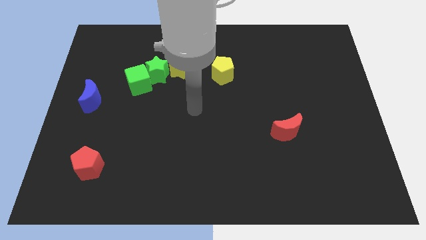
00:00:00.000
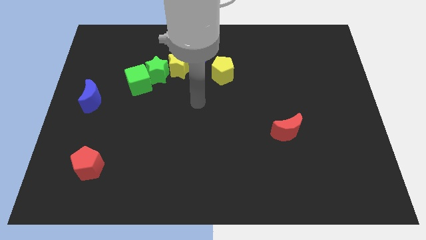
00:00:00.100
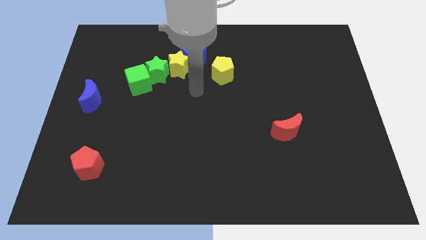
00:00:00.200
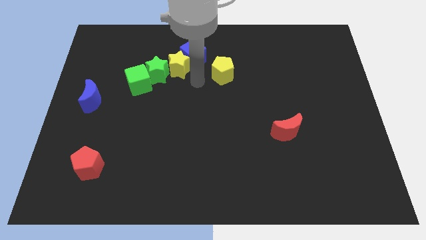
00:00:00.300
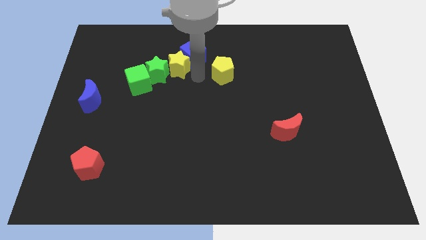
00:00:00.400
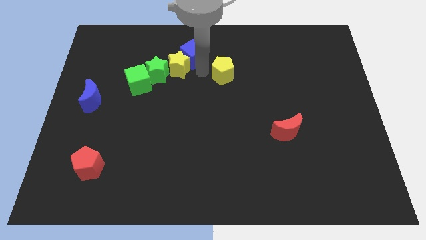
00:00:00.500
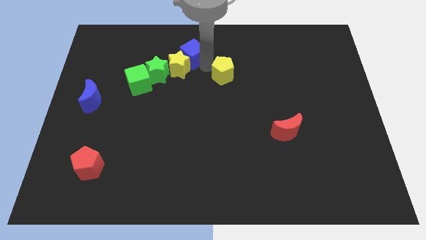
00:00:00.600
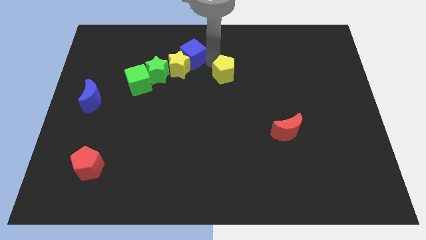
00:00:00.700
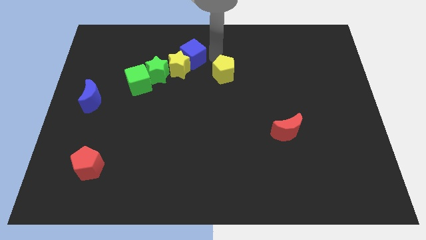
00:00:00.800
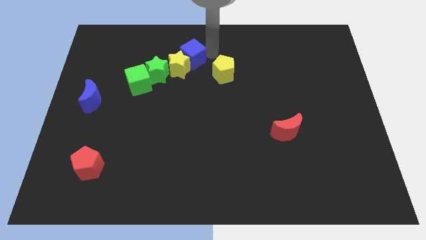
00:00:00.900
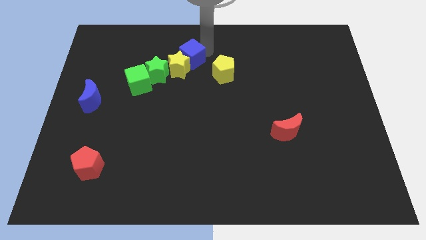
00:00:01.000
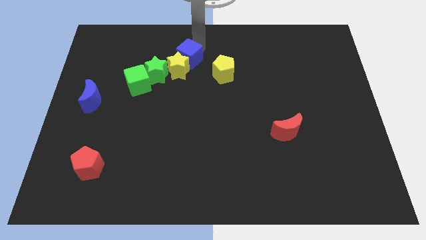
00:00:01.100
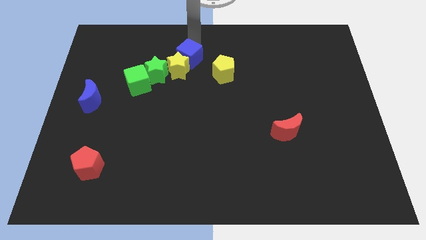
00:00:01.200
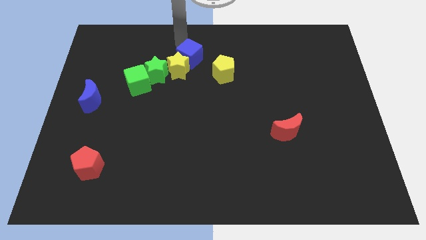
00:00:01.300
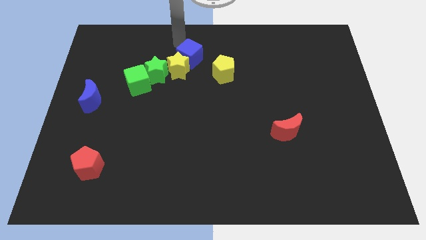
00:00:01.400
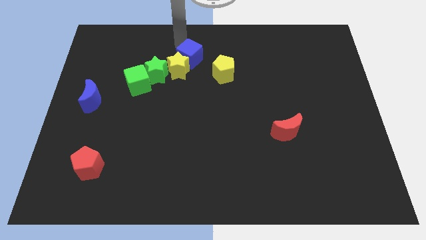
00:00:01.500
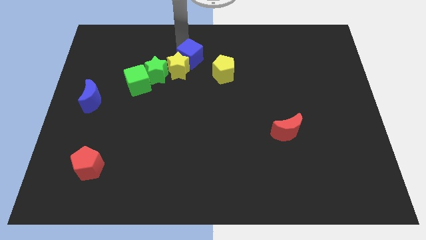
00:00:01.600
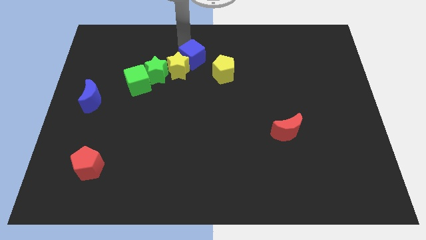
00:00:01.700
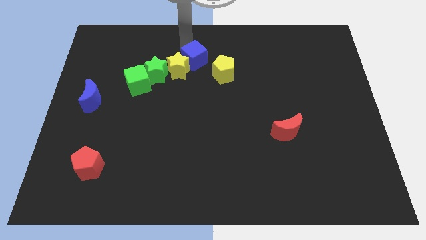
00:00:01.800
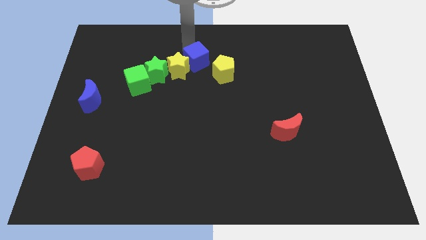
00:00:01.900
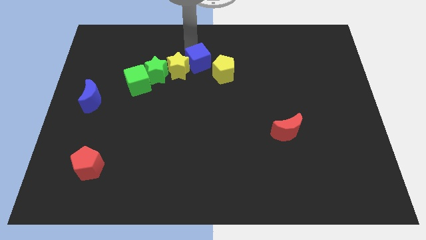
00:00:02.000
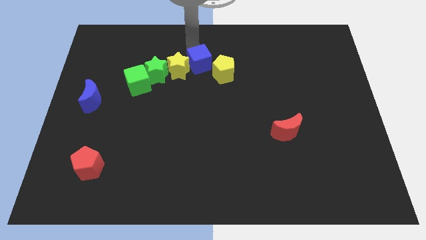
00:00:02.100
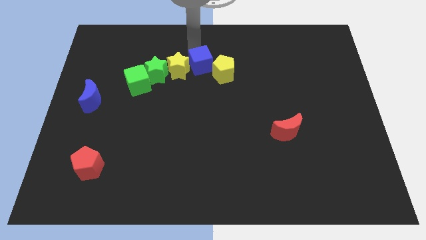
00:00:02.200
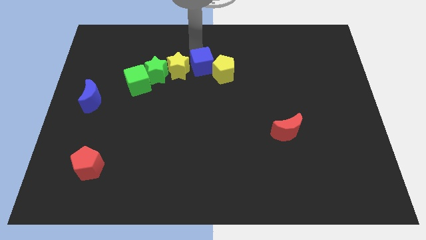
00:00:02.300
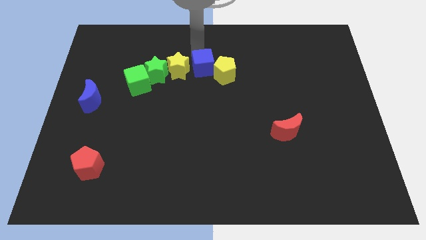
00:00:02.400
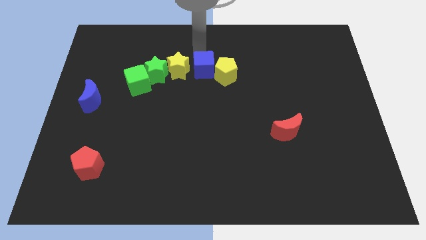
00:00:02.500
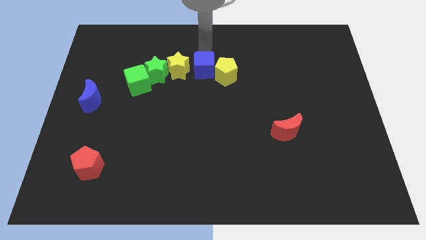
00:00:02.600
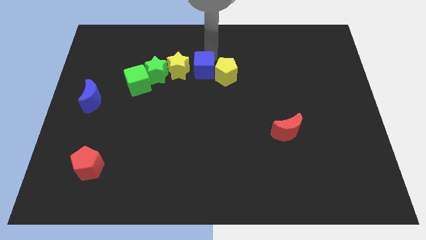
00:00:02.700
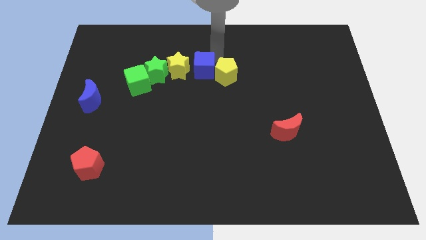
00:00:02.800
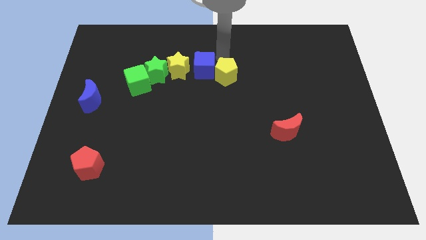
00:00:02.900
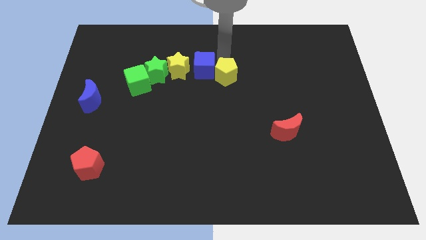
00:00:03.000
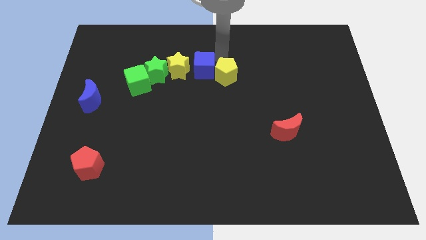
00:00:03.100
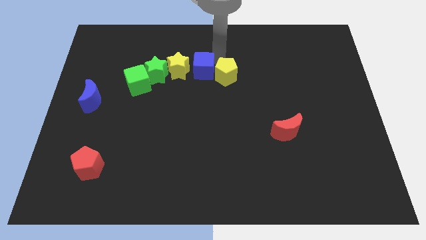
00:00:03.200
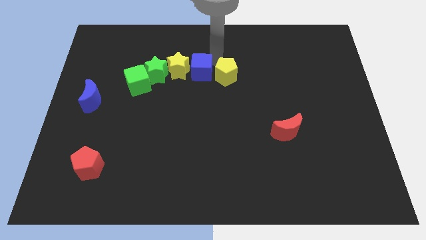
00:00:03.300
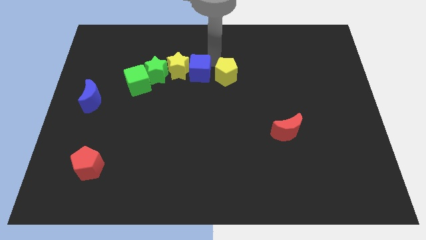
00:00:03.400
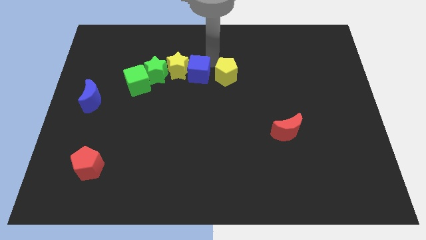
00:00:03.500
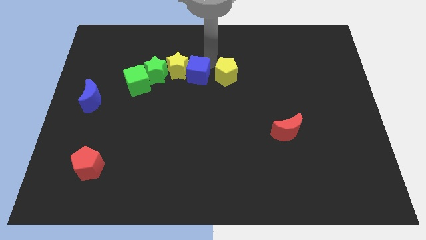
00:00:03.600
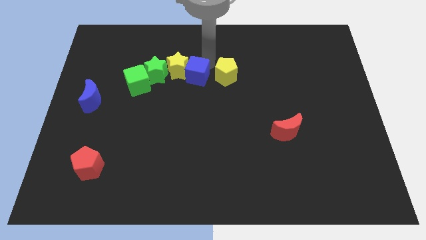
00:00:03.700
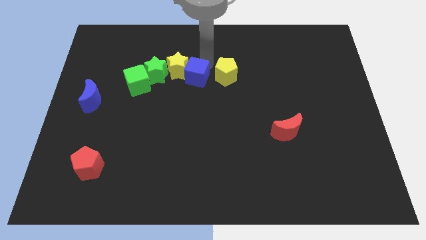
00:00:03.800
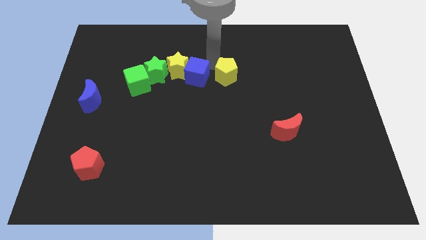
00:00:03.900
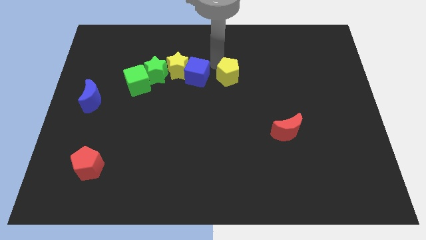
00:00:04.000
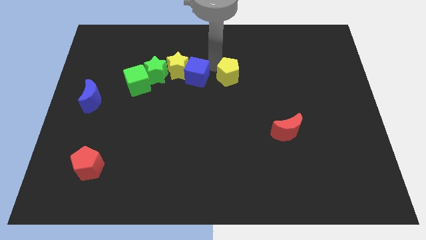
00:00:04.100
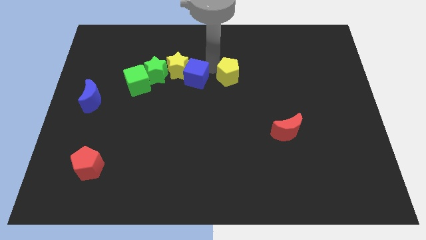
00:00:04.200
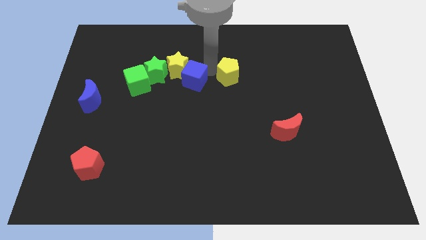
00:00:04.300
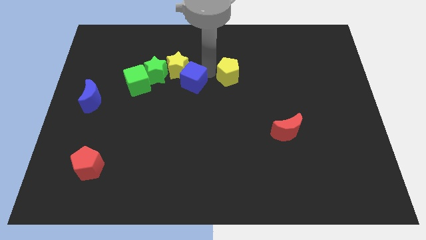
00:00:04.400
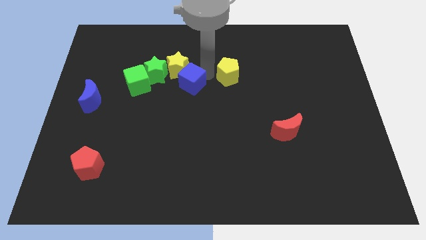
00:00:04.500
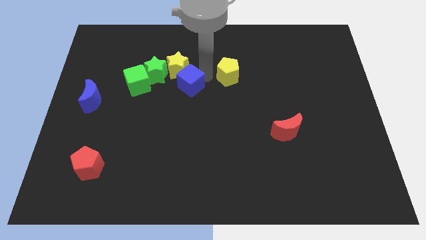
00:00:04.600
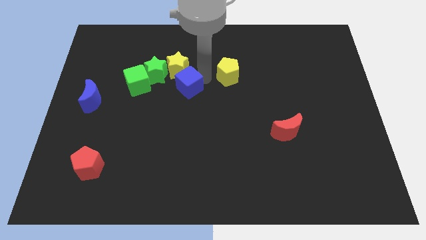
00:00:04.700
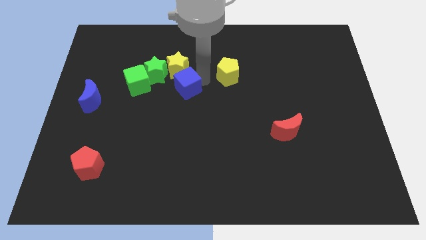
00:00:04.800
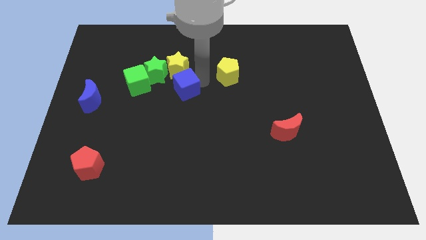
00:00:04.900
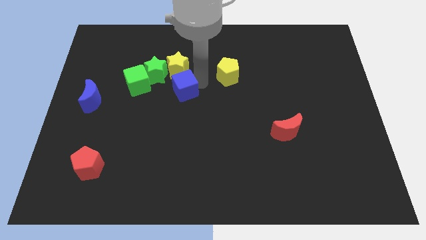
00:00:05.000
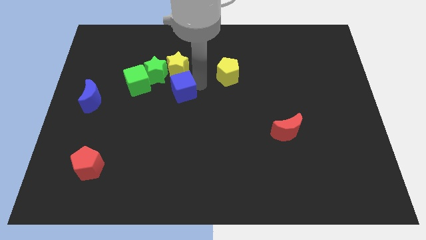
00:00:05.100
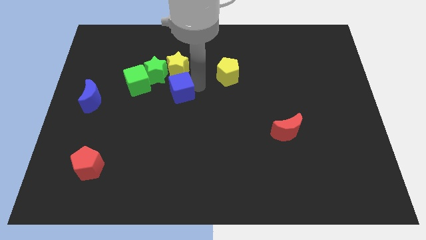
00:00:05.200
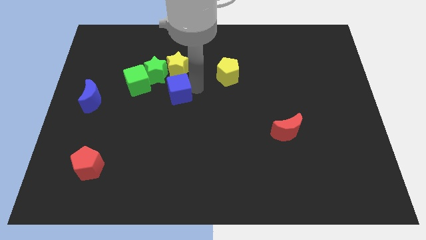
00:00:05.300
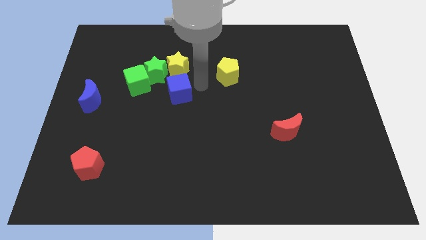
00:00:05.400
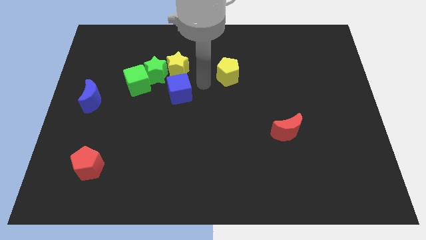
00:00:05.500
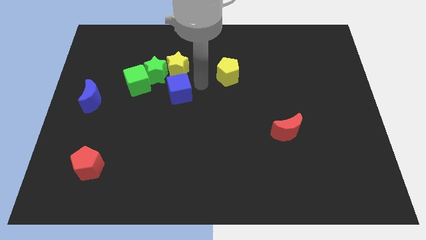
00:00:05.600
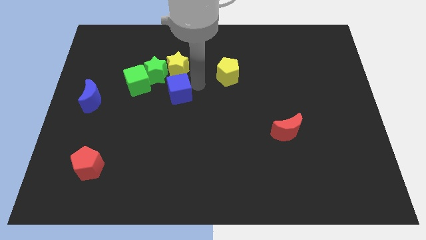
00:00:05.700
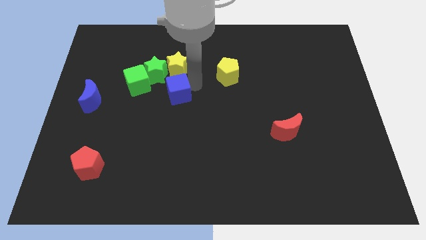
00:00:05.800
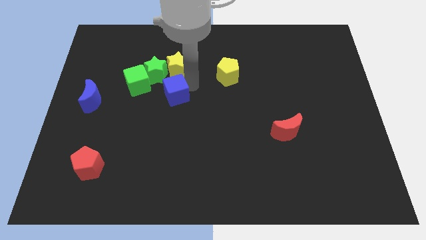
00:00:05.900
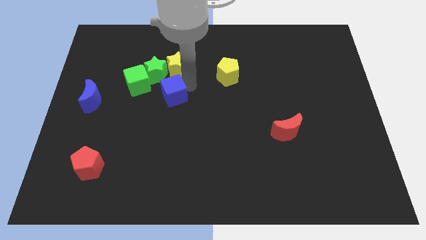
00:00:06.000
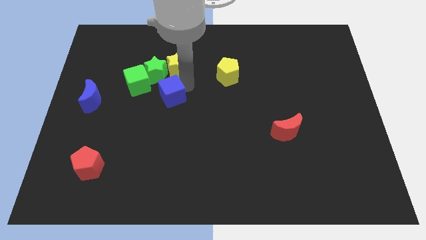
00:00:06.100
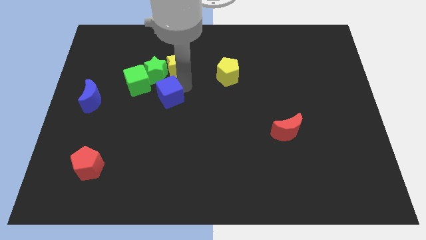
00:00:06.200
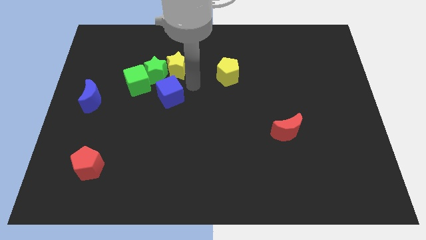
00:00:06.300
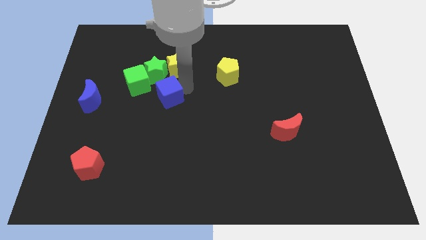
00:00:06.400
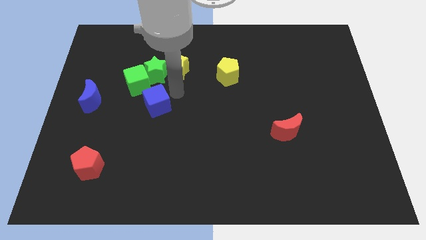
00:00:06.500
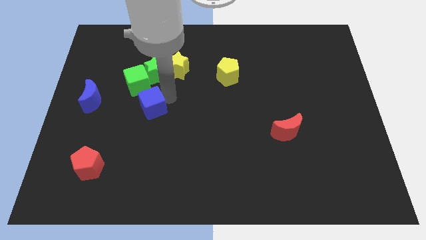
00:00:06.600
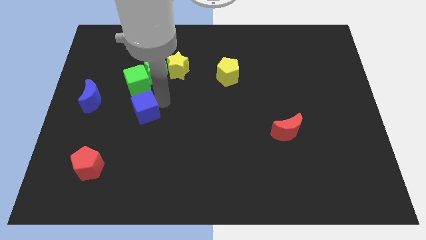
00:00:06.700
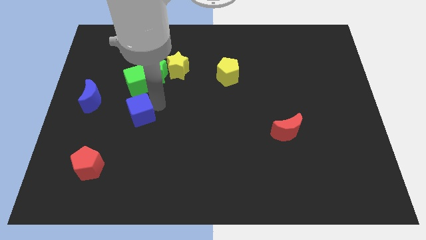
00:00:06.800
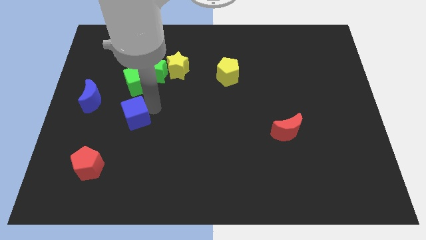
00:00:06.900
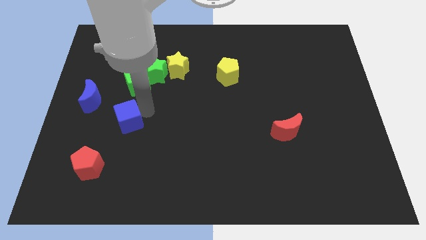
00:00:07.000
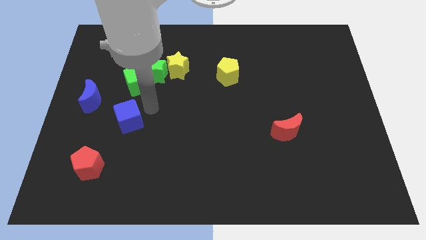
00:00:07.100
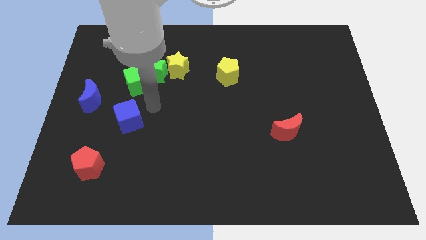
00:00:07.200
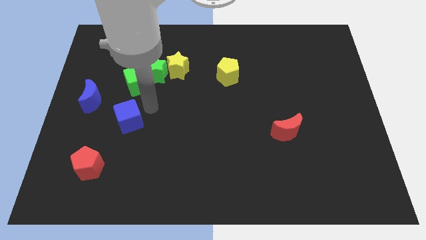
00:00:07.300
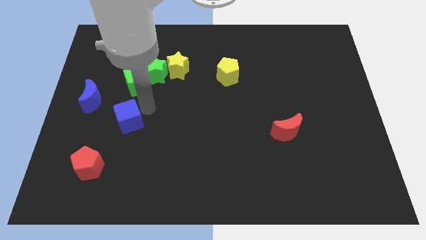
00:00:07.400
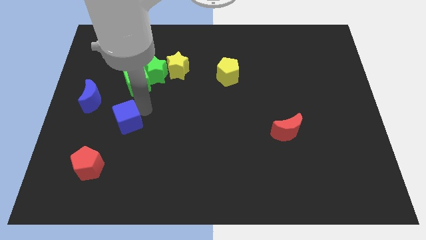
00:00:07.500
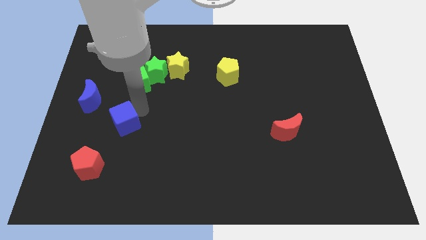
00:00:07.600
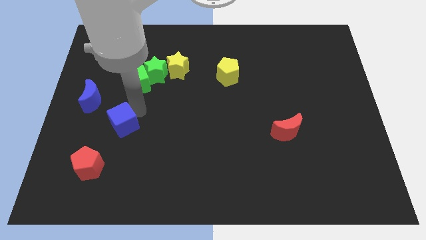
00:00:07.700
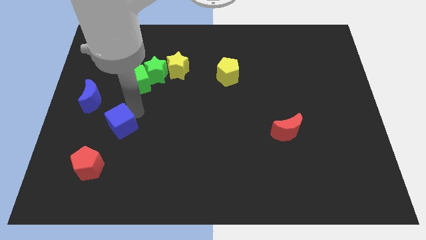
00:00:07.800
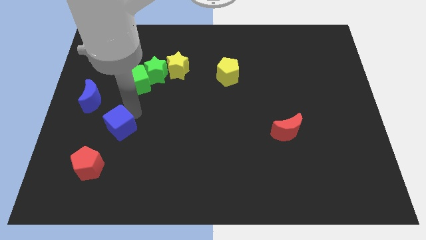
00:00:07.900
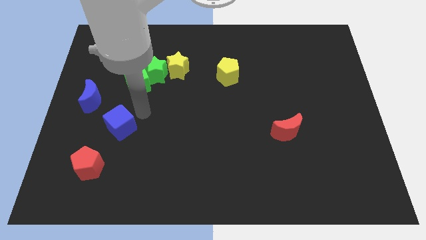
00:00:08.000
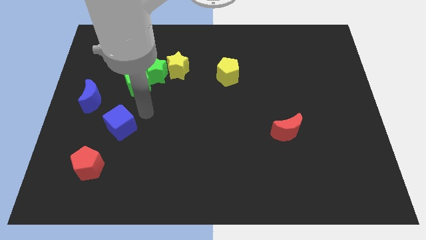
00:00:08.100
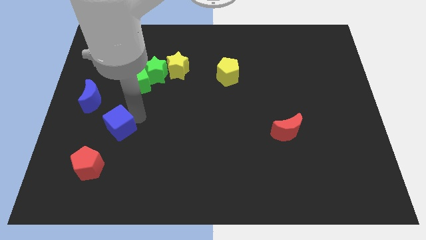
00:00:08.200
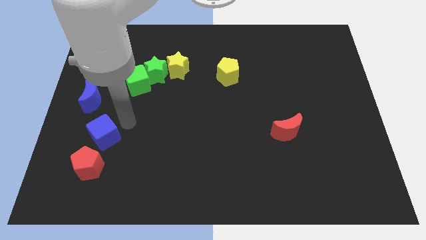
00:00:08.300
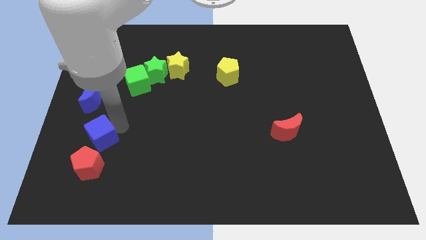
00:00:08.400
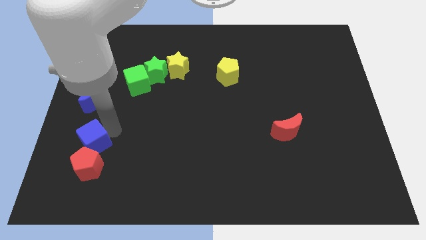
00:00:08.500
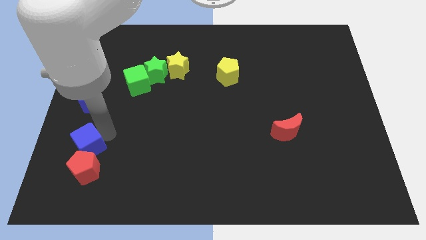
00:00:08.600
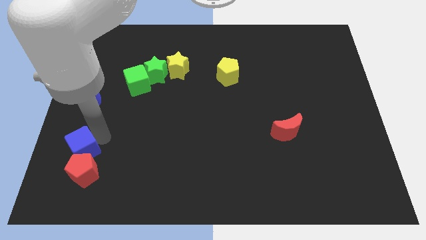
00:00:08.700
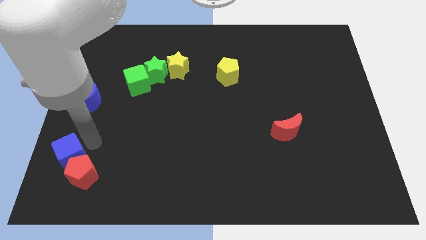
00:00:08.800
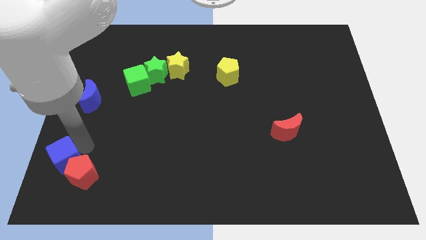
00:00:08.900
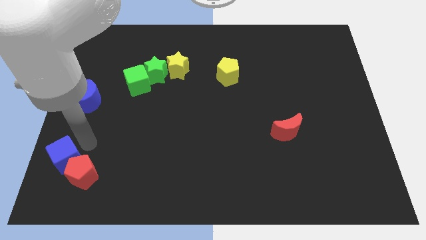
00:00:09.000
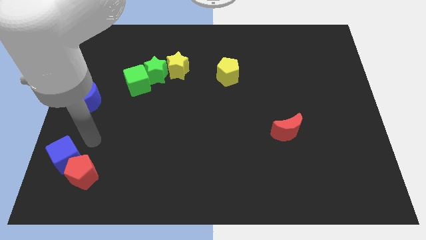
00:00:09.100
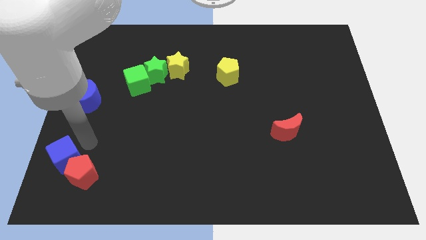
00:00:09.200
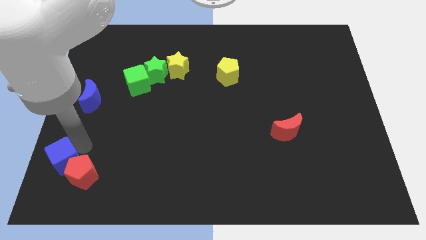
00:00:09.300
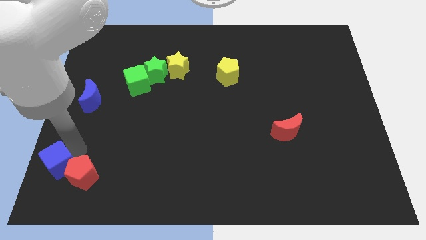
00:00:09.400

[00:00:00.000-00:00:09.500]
slide the blue cube to the bottom left corner
